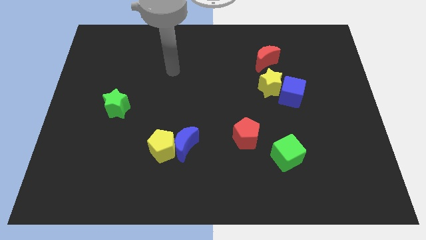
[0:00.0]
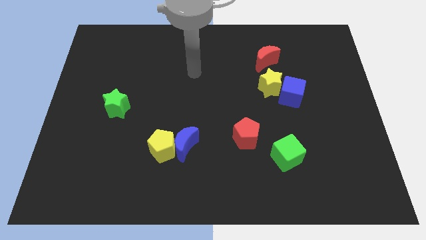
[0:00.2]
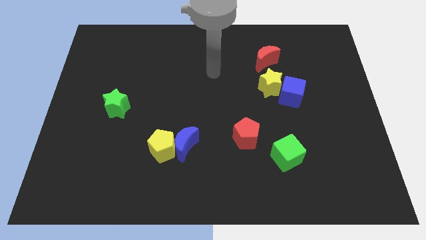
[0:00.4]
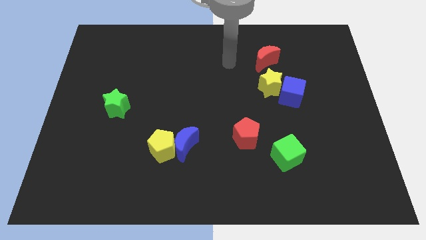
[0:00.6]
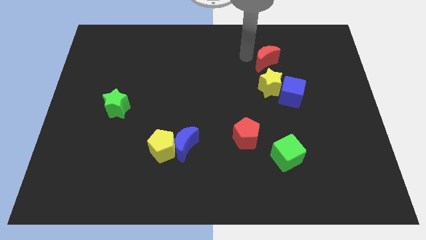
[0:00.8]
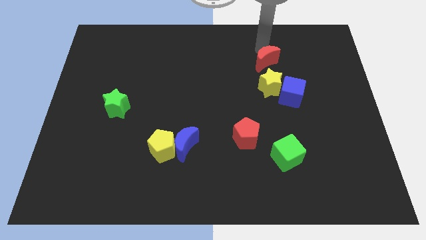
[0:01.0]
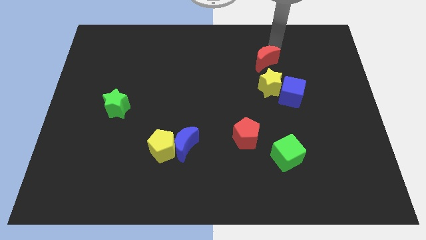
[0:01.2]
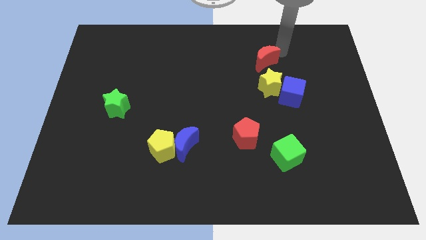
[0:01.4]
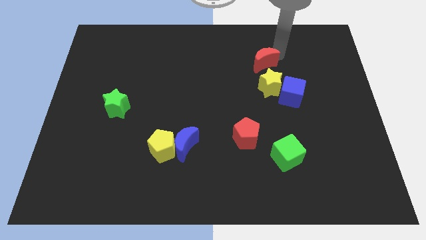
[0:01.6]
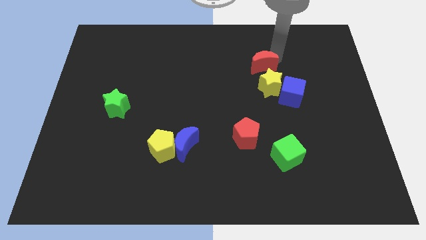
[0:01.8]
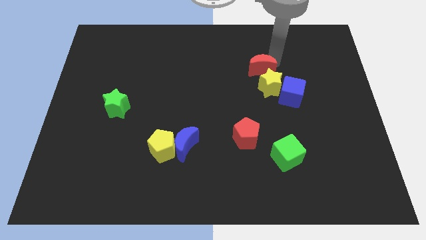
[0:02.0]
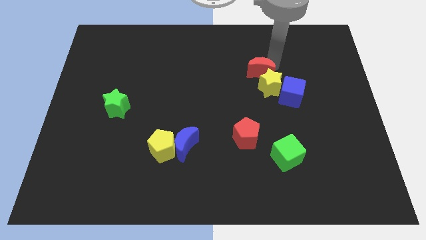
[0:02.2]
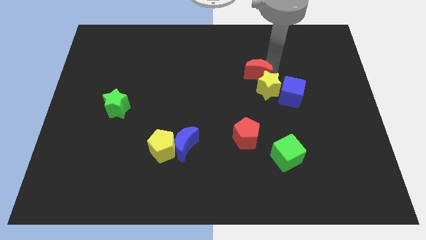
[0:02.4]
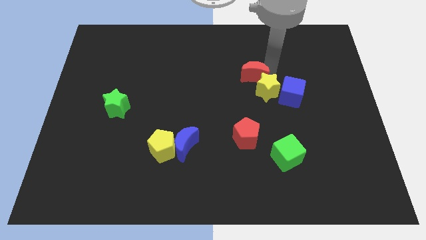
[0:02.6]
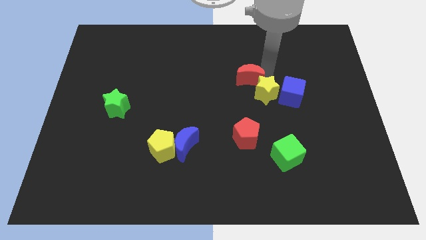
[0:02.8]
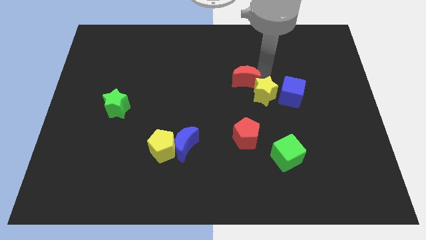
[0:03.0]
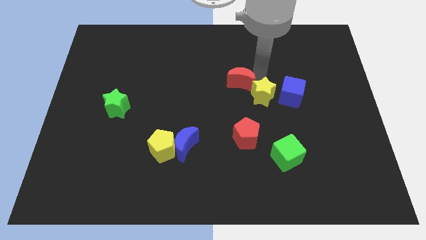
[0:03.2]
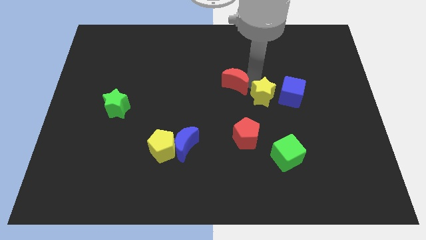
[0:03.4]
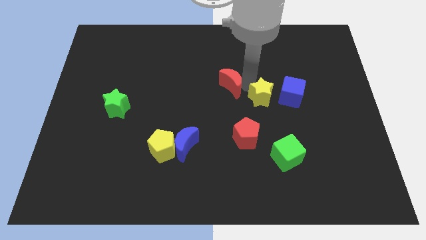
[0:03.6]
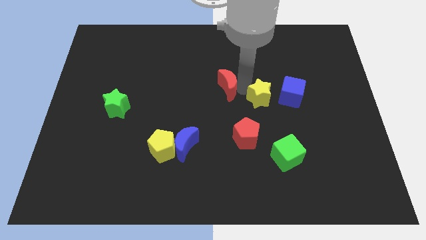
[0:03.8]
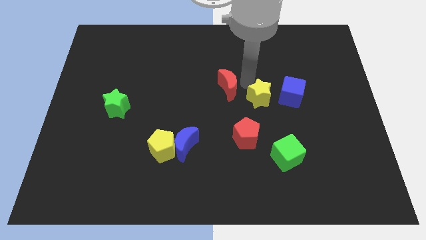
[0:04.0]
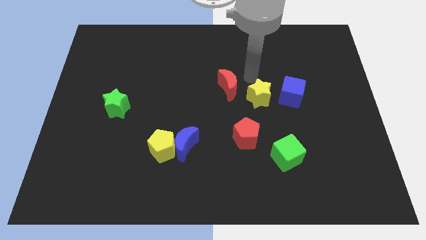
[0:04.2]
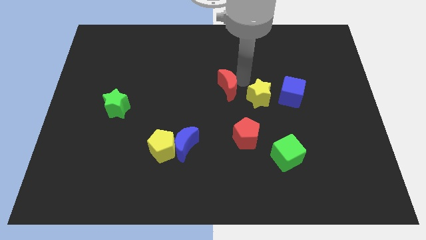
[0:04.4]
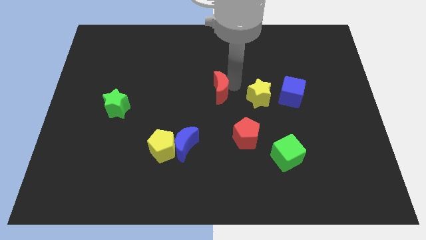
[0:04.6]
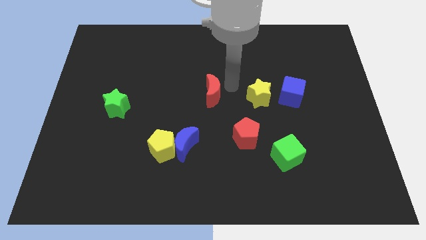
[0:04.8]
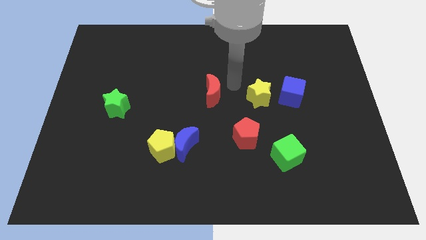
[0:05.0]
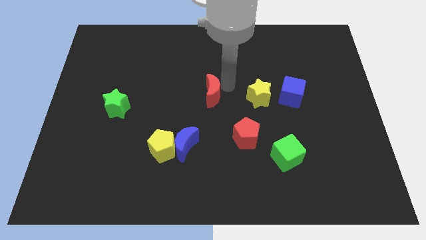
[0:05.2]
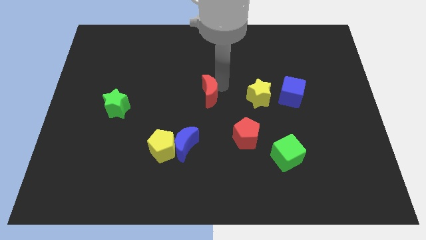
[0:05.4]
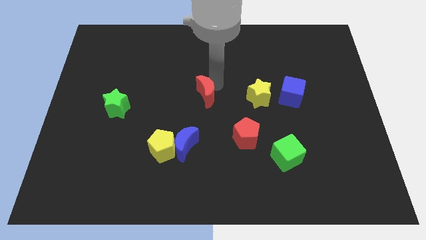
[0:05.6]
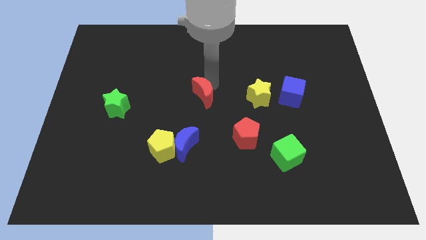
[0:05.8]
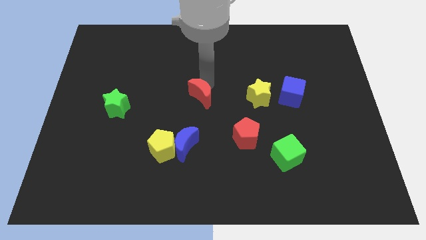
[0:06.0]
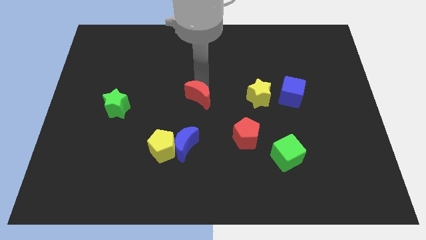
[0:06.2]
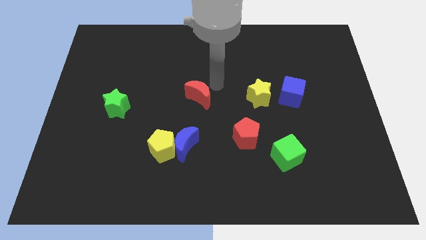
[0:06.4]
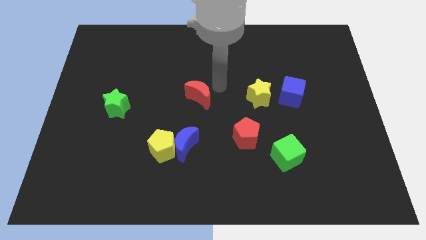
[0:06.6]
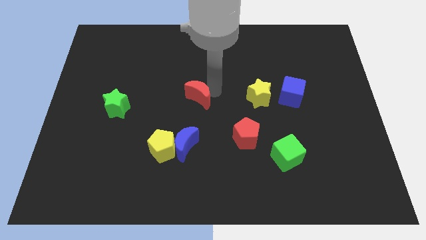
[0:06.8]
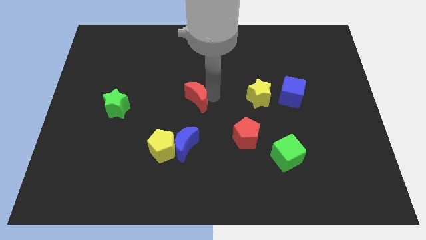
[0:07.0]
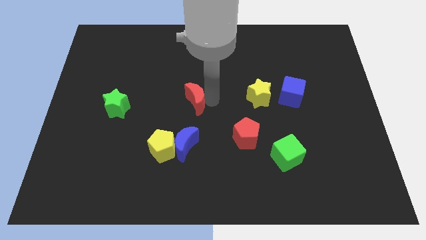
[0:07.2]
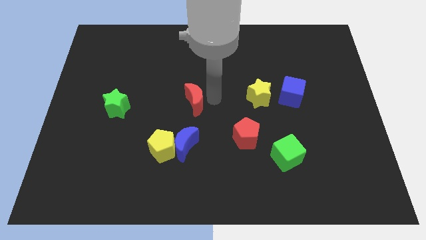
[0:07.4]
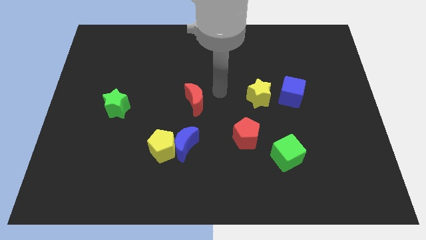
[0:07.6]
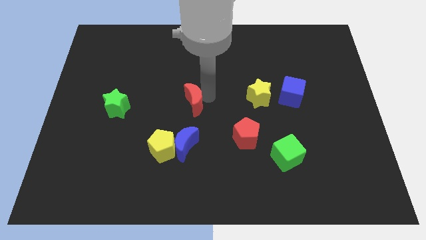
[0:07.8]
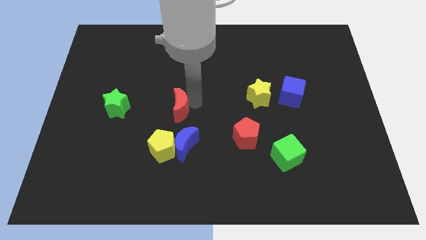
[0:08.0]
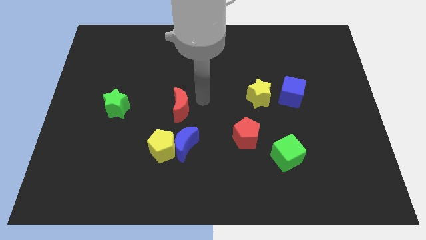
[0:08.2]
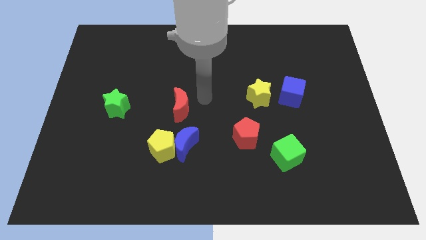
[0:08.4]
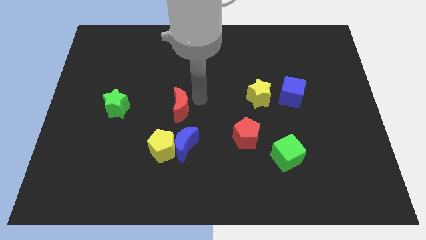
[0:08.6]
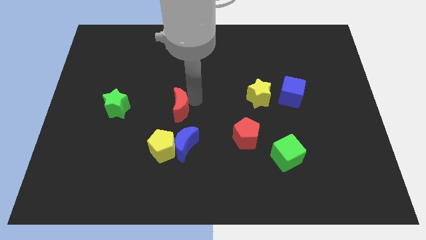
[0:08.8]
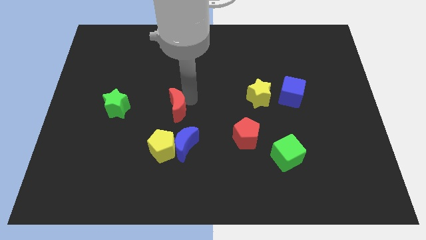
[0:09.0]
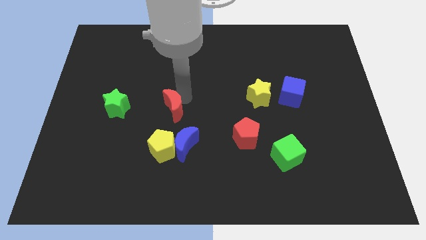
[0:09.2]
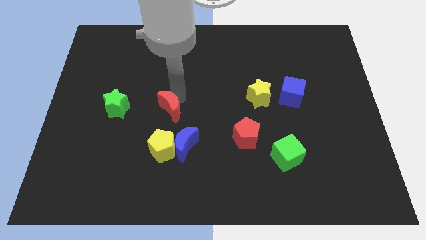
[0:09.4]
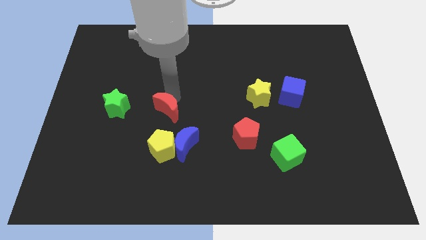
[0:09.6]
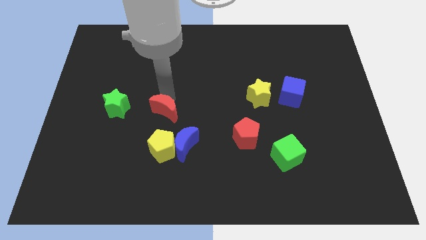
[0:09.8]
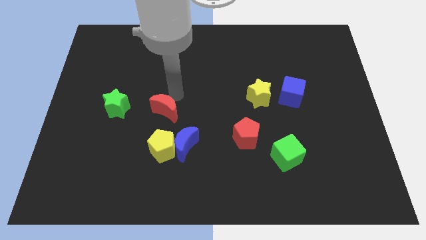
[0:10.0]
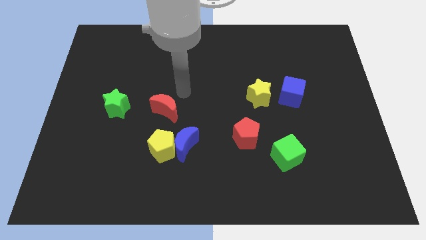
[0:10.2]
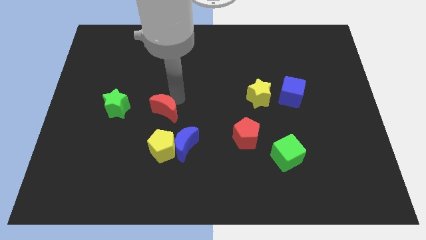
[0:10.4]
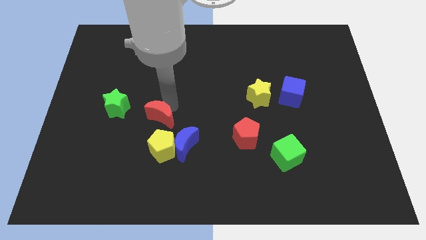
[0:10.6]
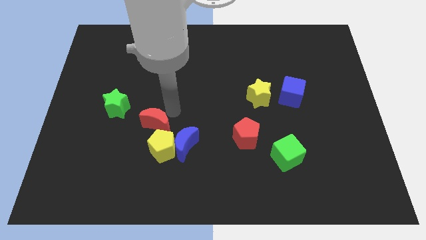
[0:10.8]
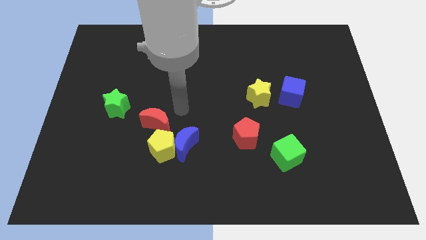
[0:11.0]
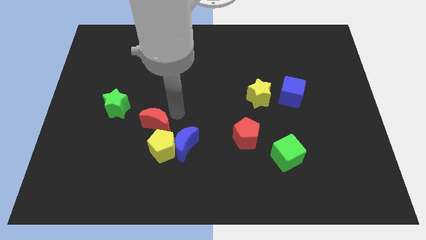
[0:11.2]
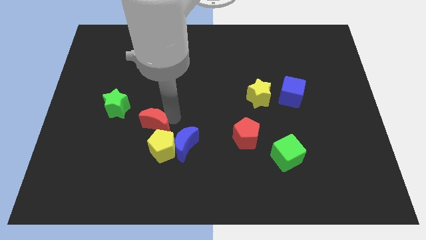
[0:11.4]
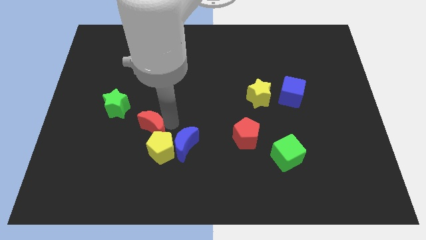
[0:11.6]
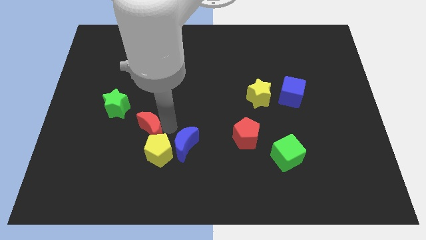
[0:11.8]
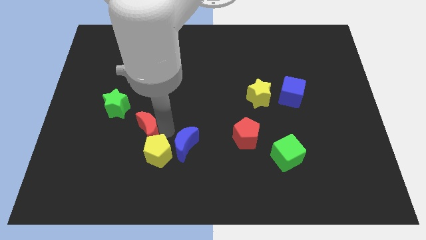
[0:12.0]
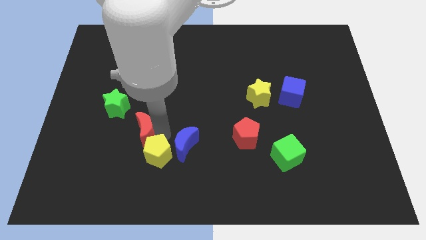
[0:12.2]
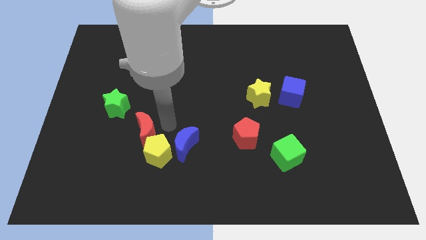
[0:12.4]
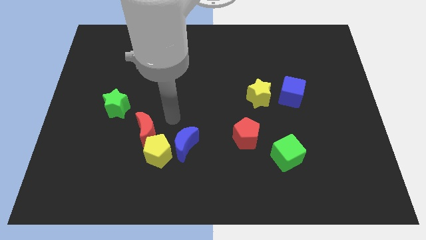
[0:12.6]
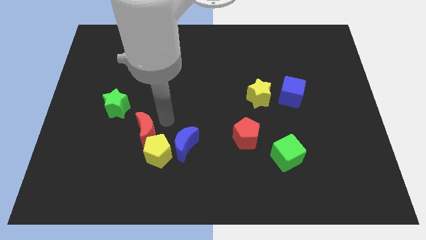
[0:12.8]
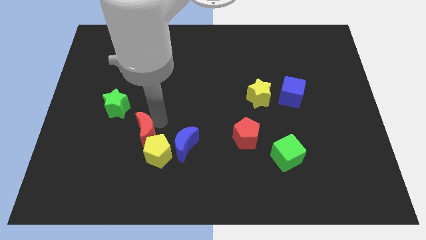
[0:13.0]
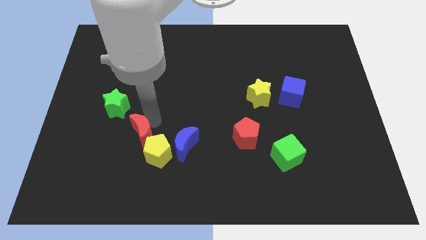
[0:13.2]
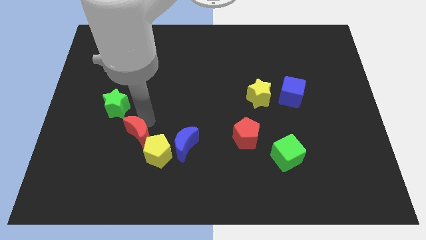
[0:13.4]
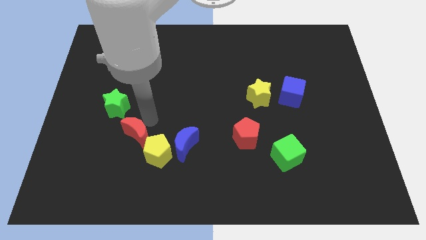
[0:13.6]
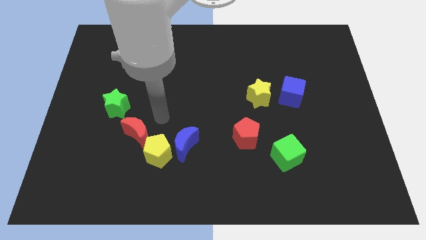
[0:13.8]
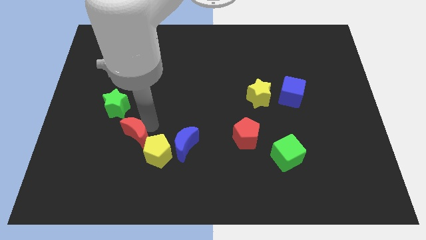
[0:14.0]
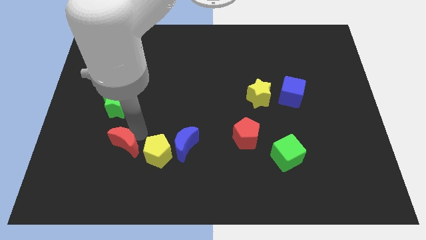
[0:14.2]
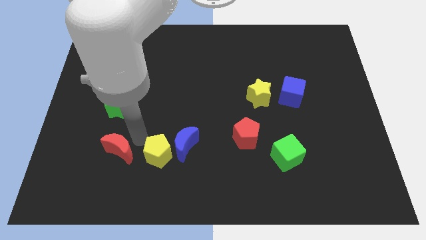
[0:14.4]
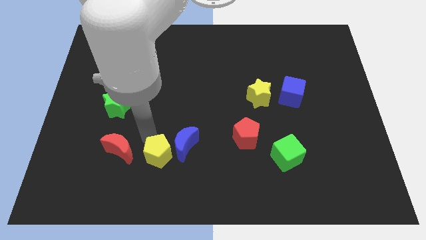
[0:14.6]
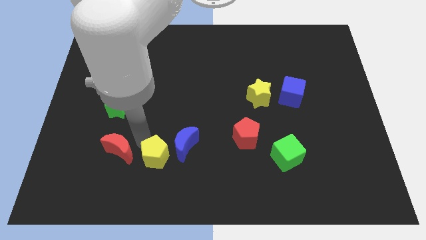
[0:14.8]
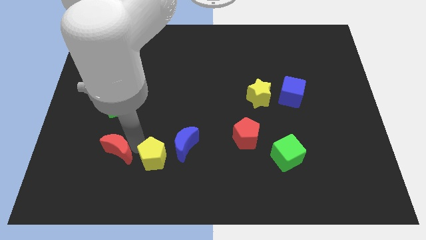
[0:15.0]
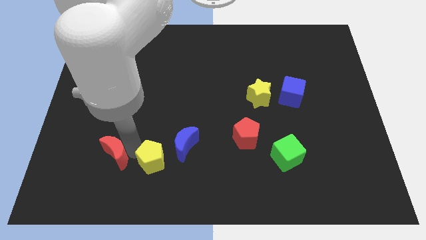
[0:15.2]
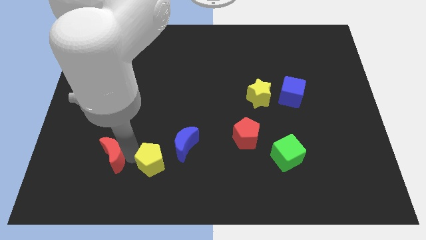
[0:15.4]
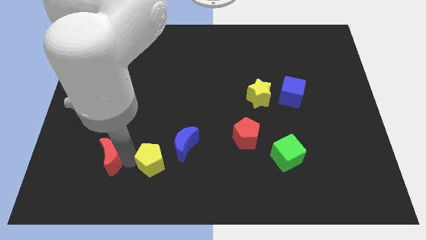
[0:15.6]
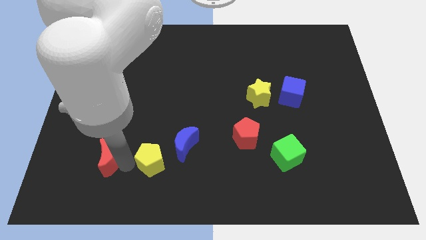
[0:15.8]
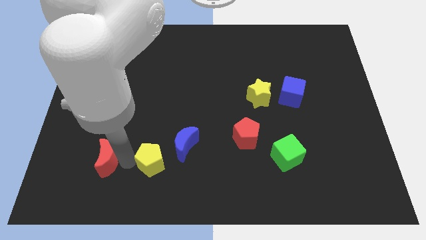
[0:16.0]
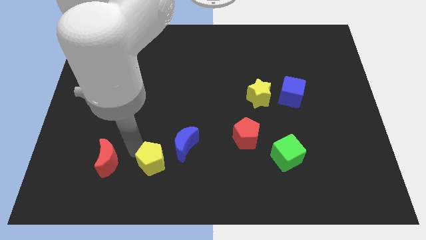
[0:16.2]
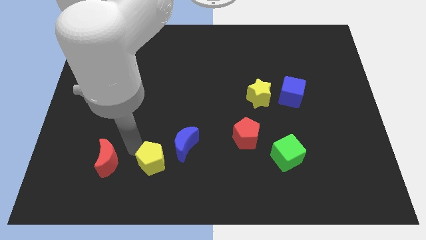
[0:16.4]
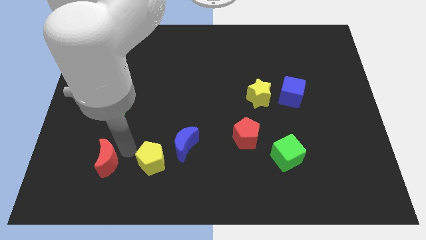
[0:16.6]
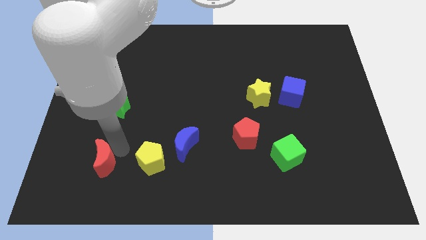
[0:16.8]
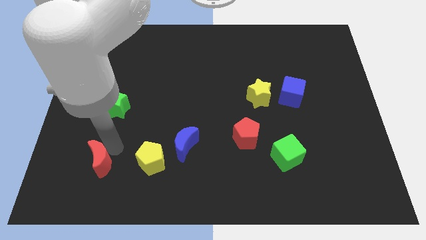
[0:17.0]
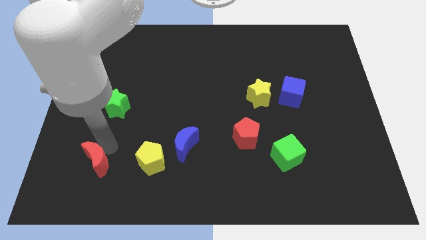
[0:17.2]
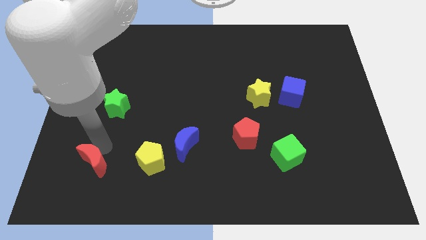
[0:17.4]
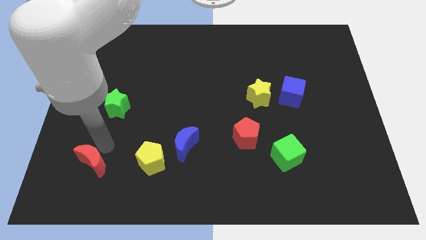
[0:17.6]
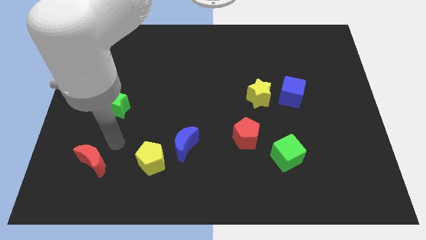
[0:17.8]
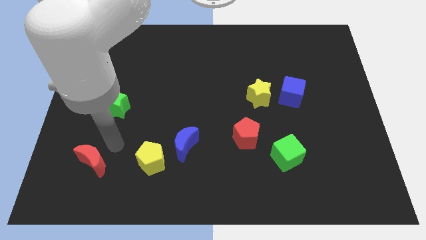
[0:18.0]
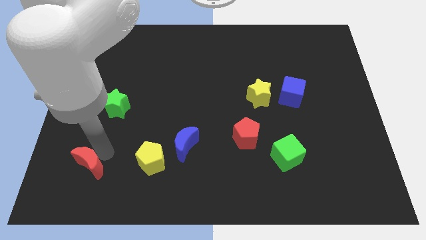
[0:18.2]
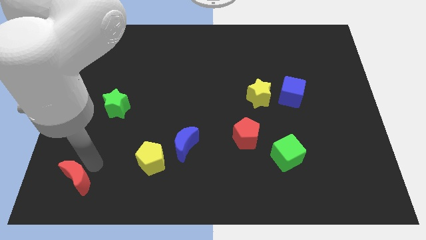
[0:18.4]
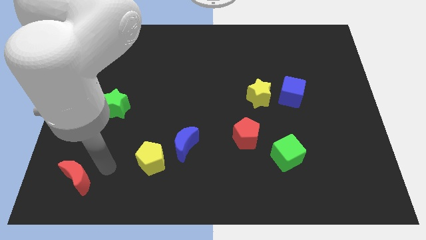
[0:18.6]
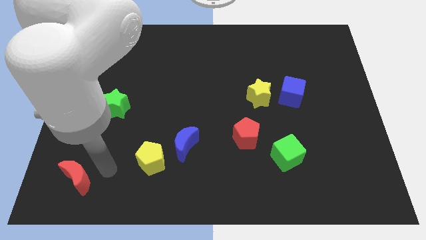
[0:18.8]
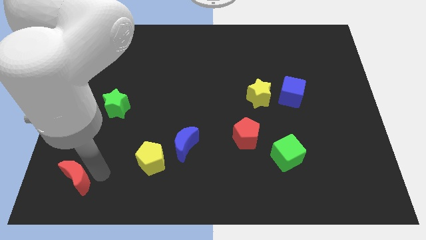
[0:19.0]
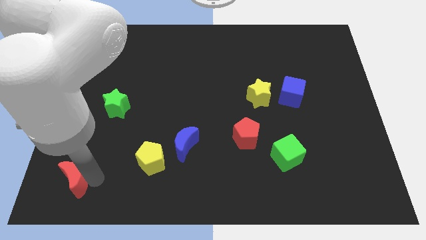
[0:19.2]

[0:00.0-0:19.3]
move the red moon to the bottom left corner
